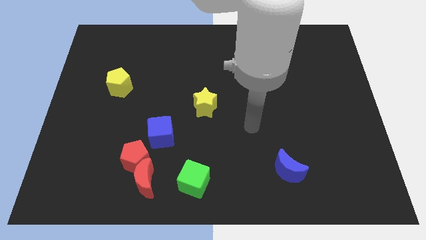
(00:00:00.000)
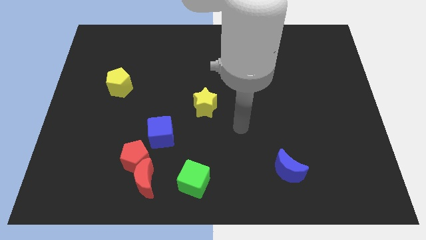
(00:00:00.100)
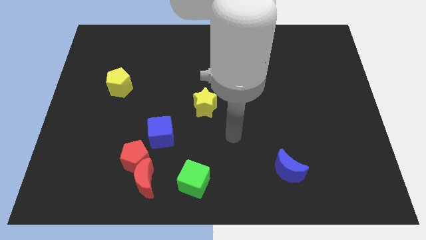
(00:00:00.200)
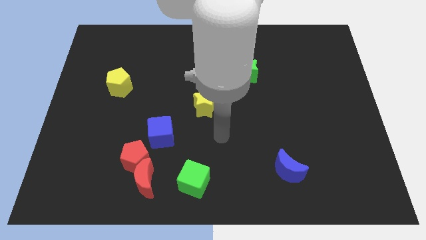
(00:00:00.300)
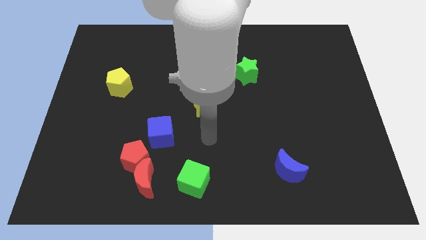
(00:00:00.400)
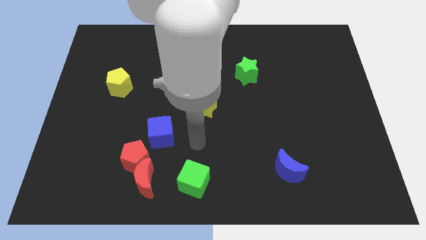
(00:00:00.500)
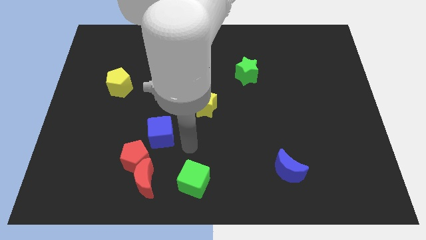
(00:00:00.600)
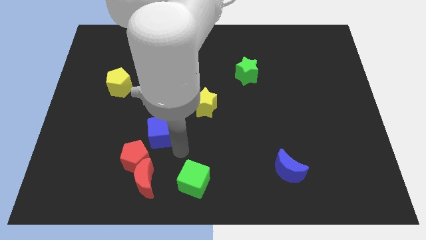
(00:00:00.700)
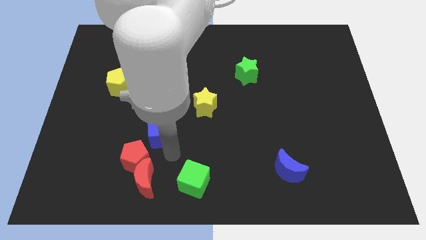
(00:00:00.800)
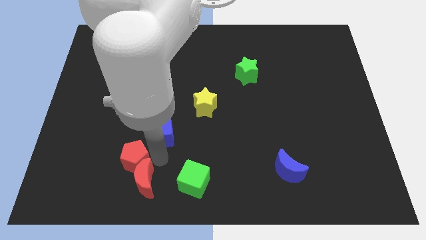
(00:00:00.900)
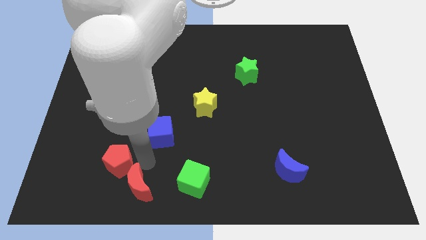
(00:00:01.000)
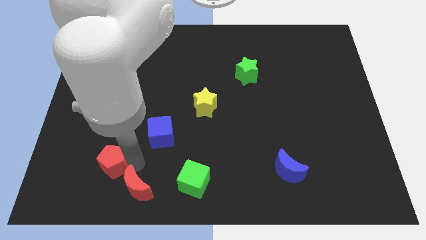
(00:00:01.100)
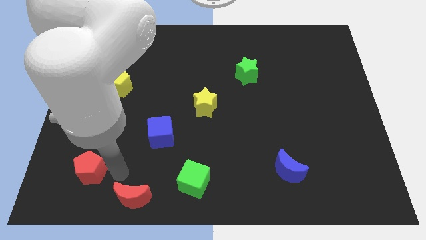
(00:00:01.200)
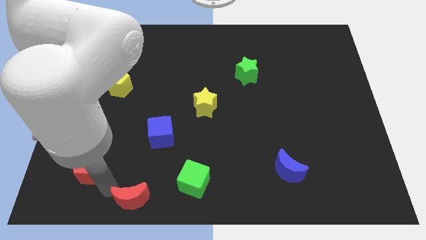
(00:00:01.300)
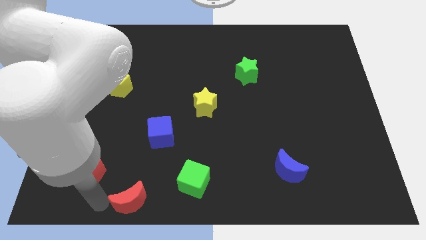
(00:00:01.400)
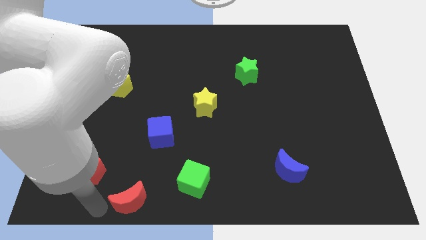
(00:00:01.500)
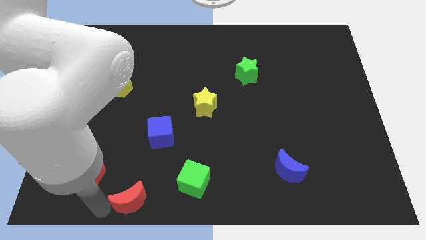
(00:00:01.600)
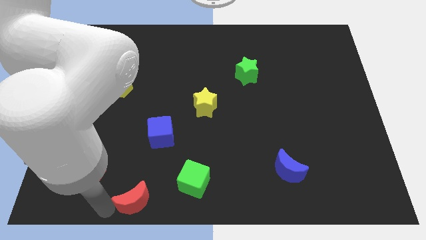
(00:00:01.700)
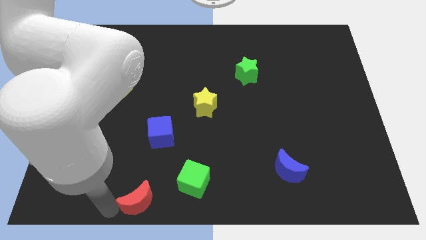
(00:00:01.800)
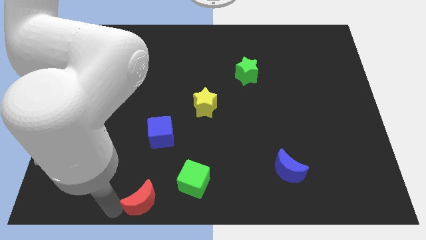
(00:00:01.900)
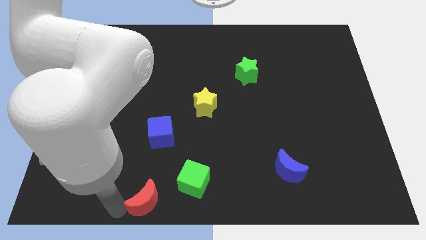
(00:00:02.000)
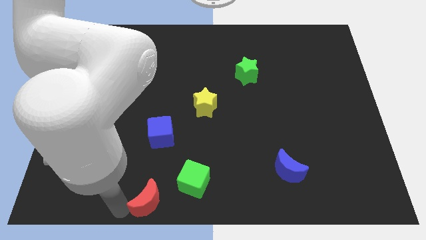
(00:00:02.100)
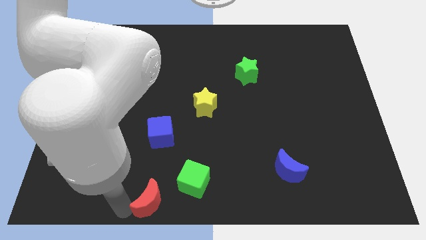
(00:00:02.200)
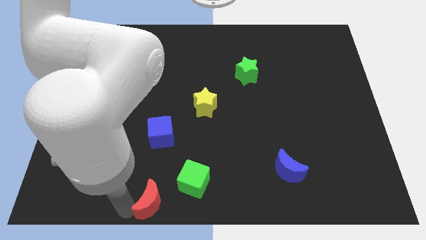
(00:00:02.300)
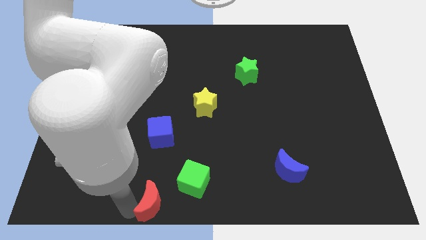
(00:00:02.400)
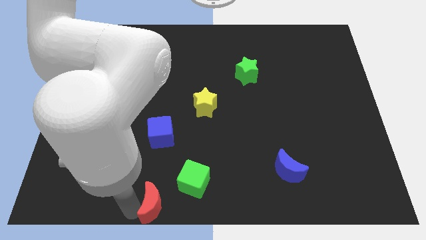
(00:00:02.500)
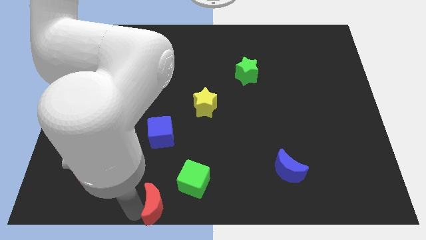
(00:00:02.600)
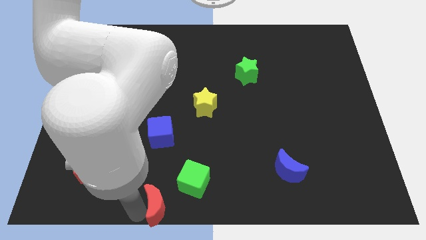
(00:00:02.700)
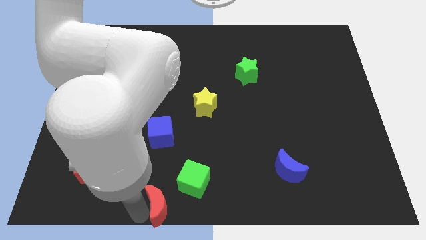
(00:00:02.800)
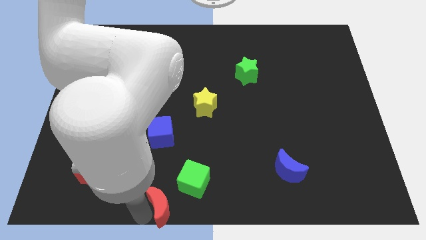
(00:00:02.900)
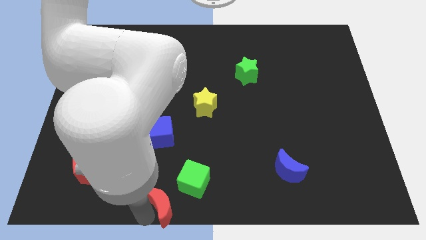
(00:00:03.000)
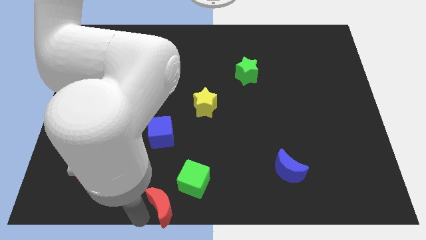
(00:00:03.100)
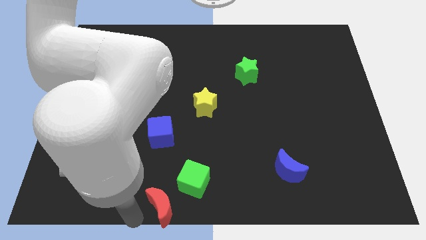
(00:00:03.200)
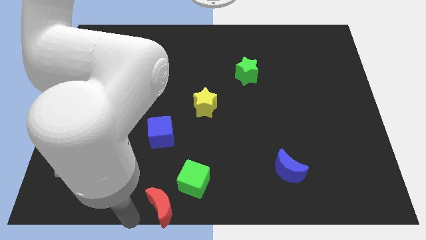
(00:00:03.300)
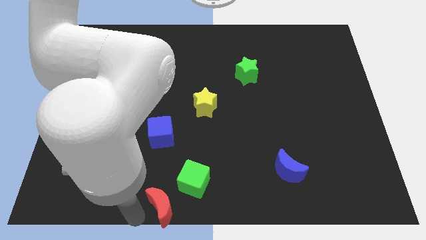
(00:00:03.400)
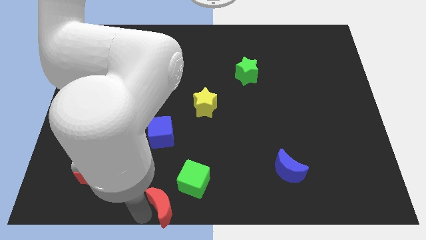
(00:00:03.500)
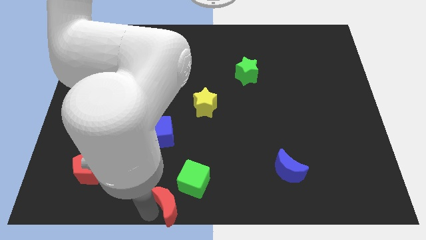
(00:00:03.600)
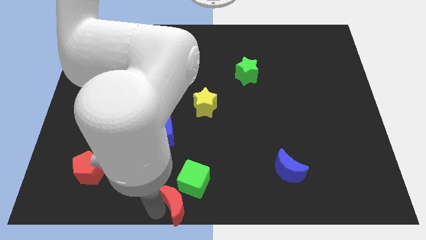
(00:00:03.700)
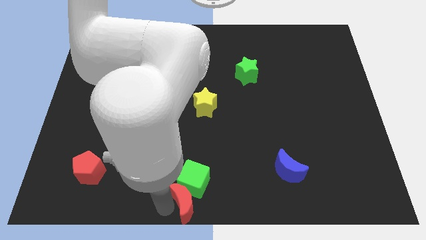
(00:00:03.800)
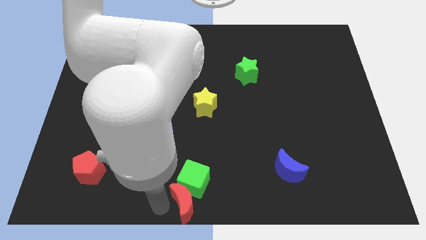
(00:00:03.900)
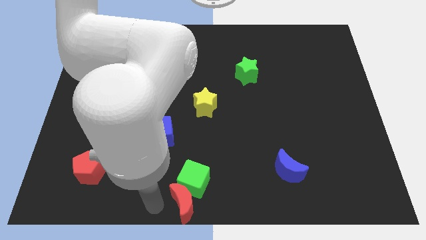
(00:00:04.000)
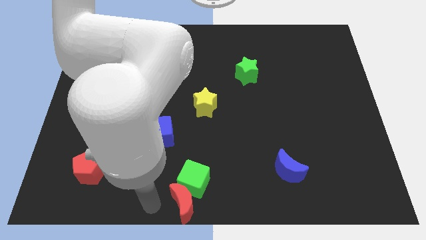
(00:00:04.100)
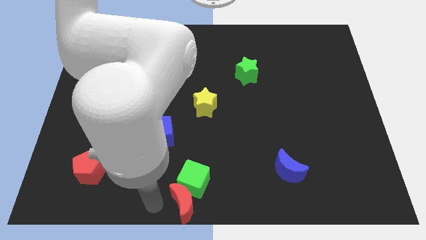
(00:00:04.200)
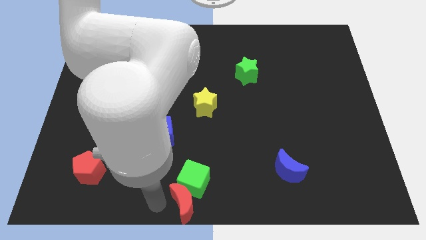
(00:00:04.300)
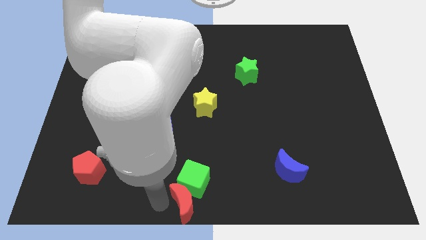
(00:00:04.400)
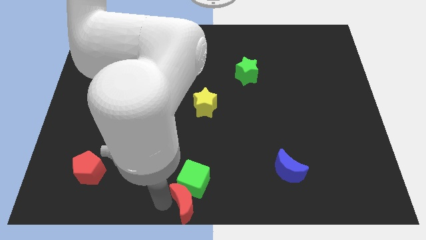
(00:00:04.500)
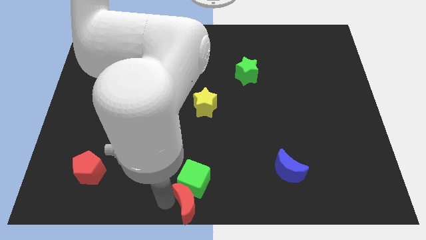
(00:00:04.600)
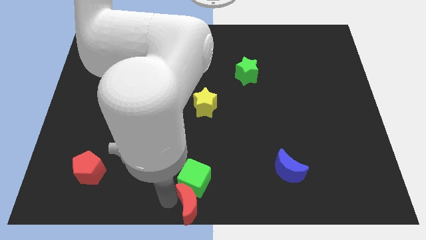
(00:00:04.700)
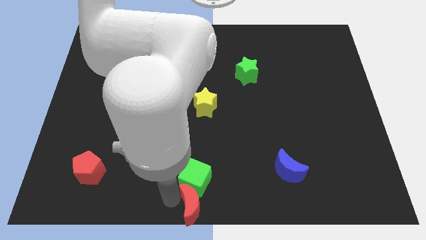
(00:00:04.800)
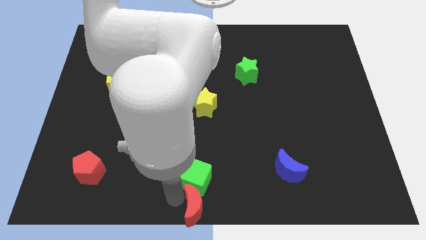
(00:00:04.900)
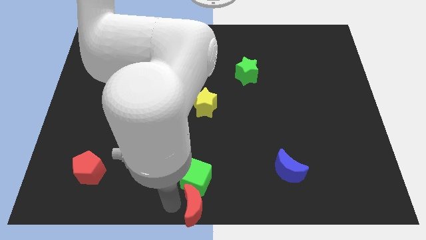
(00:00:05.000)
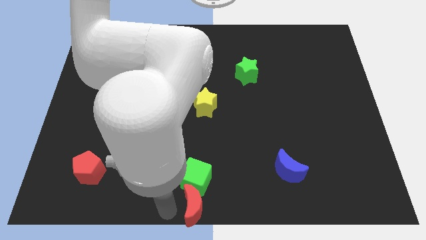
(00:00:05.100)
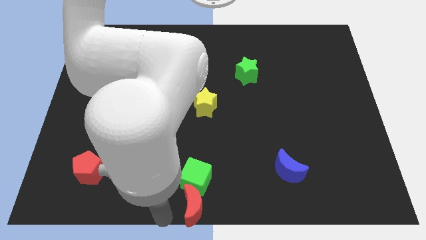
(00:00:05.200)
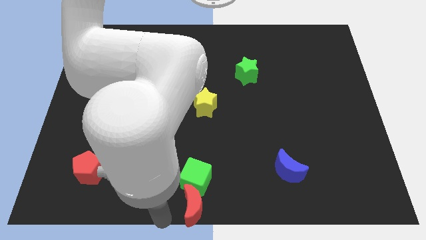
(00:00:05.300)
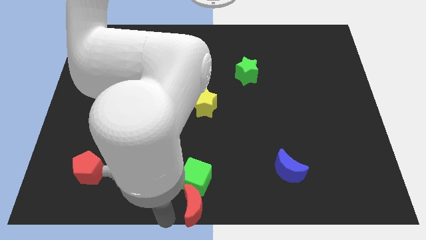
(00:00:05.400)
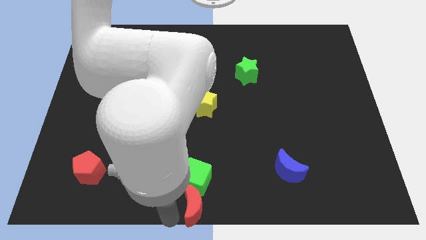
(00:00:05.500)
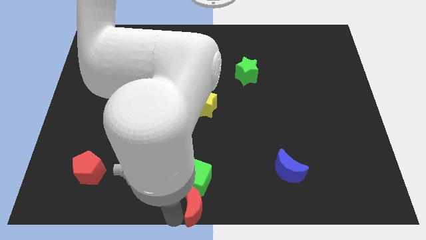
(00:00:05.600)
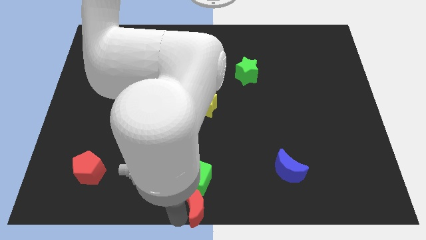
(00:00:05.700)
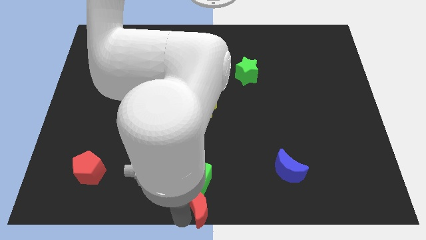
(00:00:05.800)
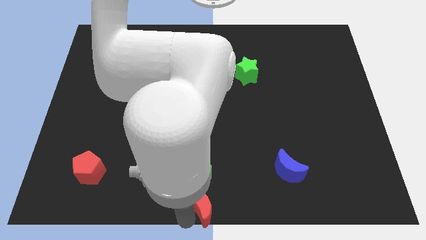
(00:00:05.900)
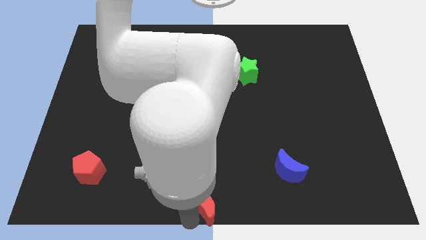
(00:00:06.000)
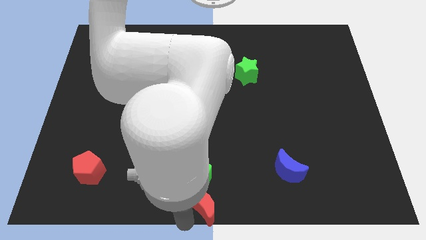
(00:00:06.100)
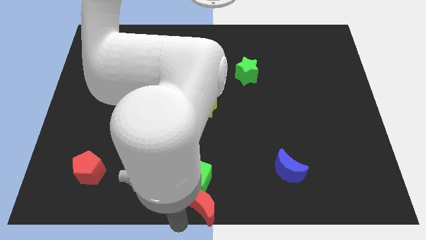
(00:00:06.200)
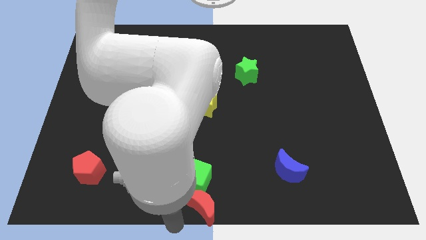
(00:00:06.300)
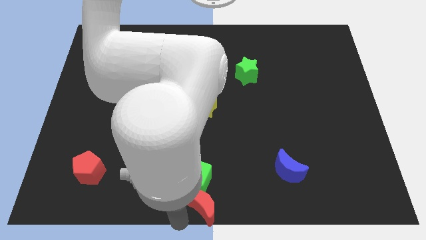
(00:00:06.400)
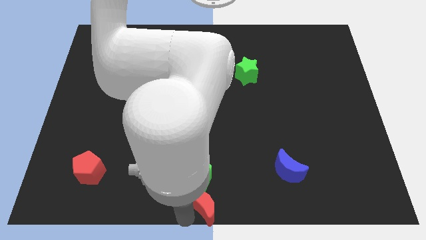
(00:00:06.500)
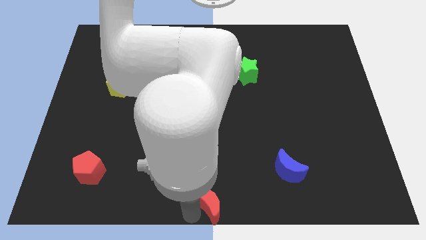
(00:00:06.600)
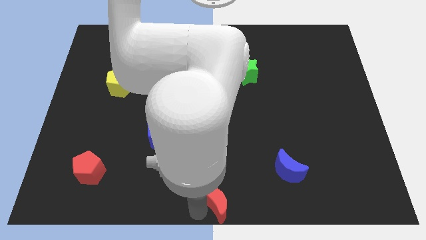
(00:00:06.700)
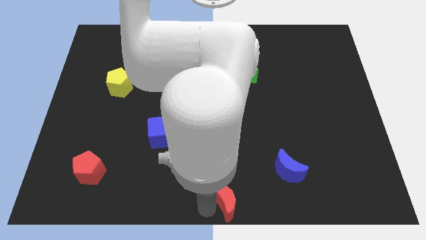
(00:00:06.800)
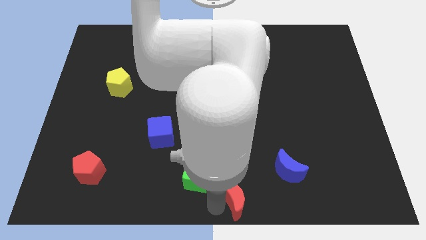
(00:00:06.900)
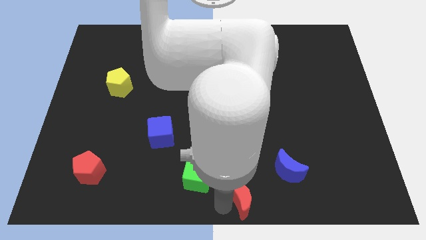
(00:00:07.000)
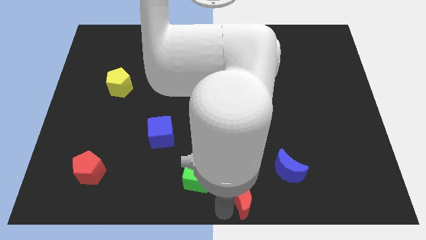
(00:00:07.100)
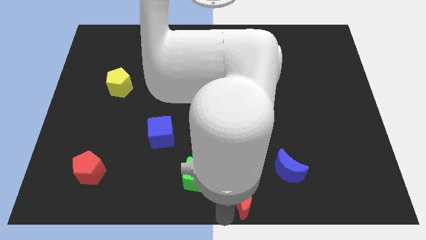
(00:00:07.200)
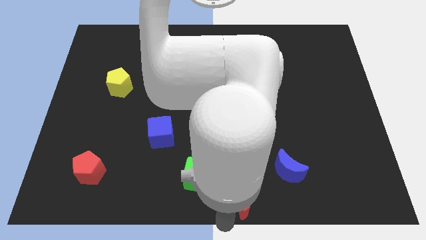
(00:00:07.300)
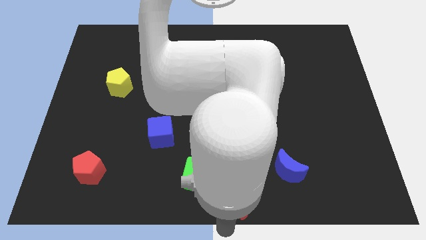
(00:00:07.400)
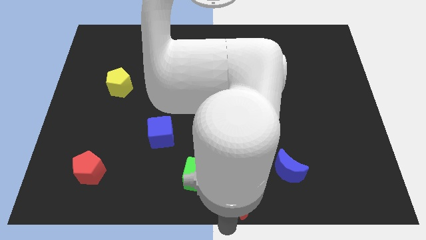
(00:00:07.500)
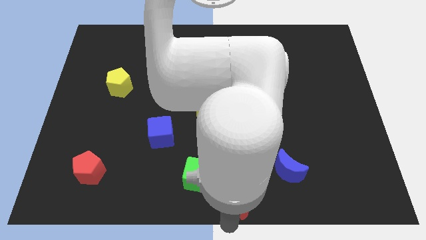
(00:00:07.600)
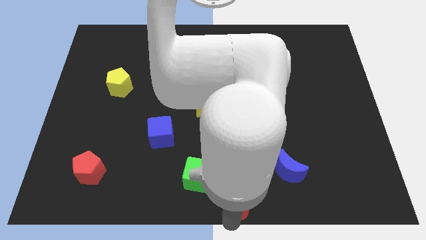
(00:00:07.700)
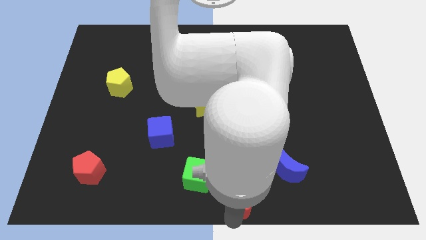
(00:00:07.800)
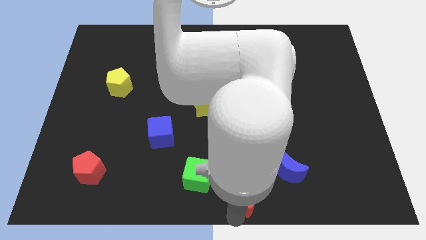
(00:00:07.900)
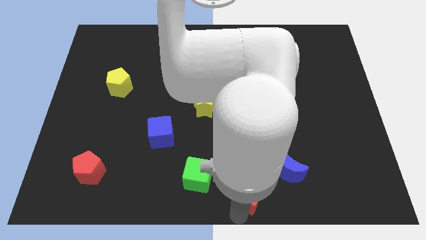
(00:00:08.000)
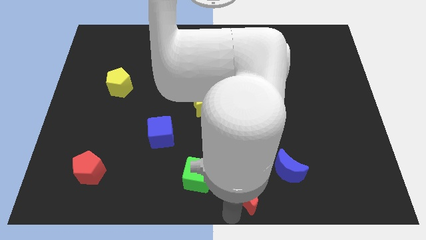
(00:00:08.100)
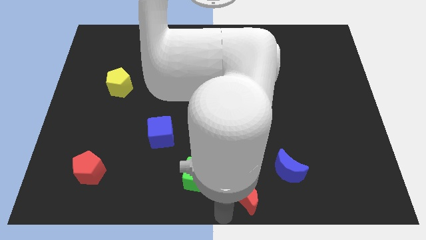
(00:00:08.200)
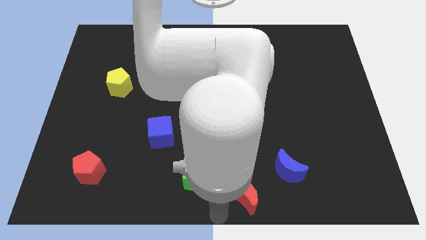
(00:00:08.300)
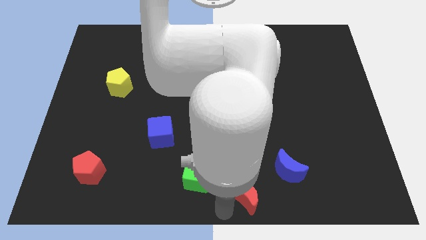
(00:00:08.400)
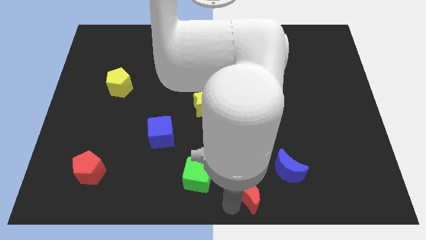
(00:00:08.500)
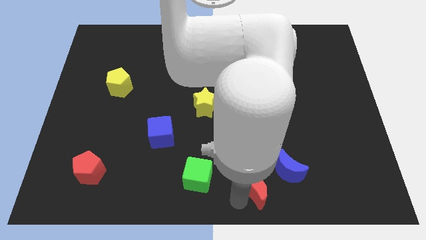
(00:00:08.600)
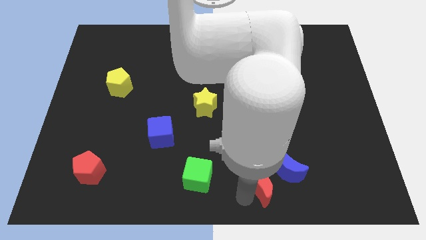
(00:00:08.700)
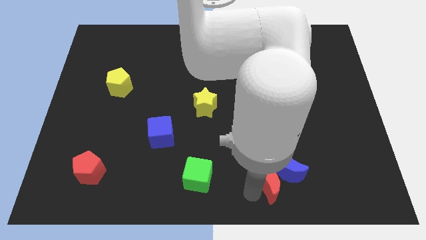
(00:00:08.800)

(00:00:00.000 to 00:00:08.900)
push the red moon towards the blue moon
